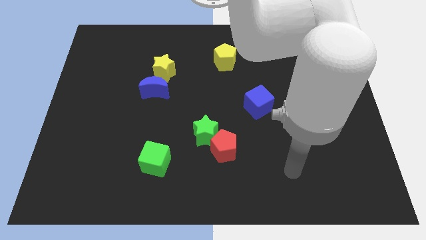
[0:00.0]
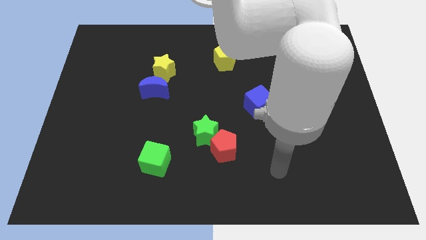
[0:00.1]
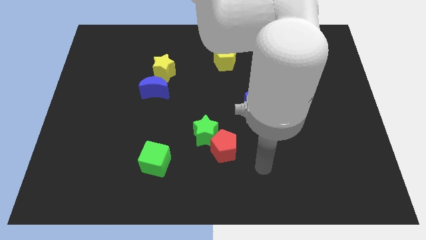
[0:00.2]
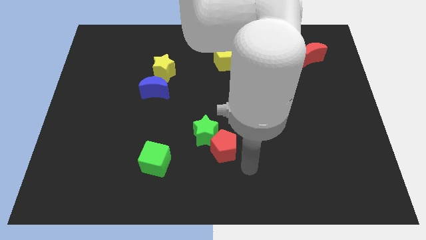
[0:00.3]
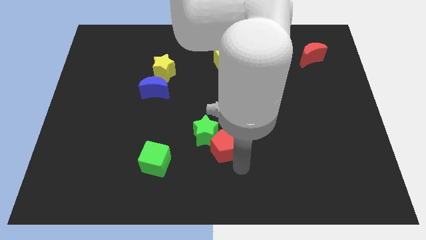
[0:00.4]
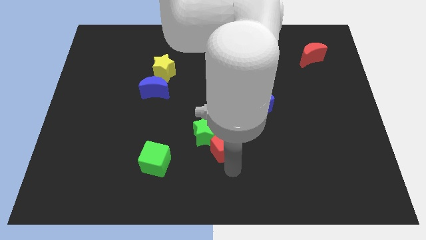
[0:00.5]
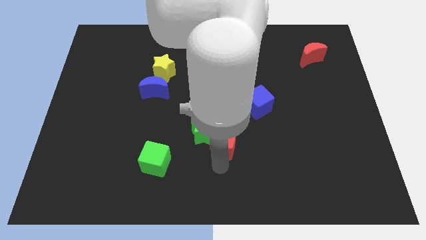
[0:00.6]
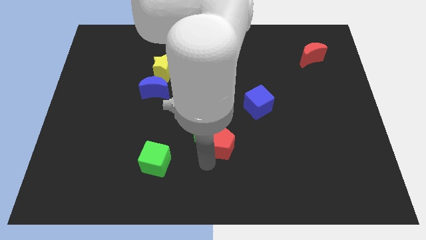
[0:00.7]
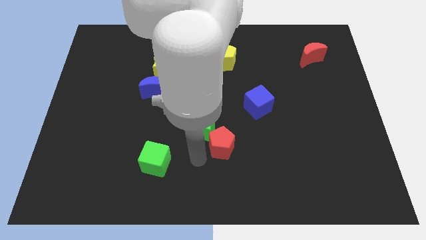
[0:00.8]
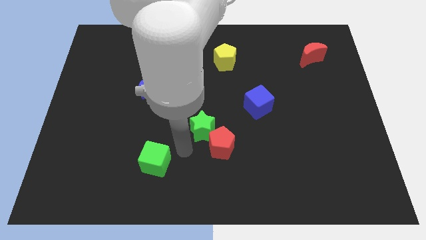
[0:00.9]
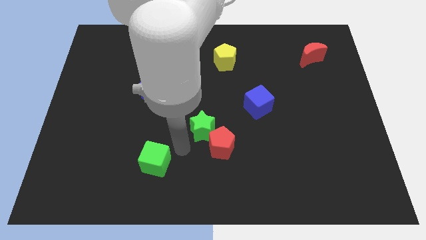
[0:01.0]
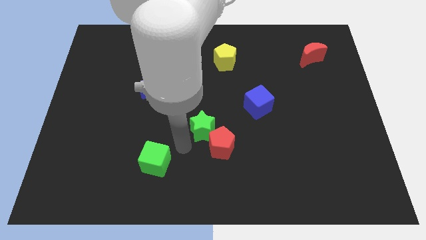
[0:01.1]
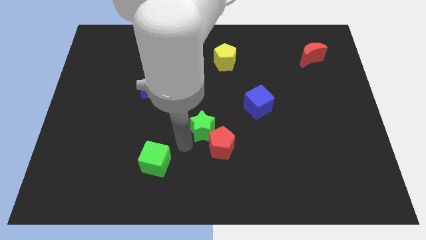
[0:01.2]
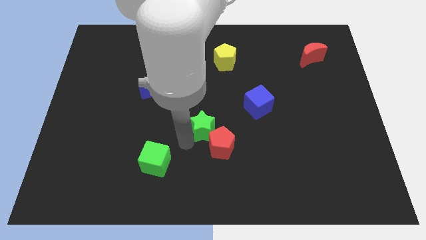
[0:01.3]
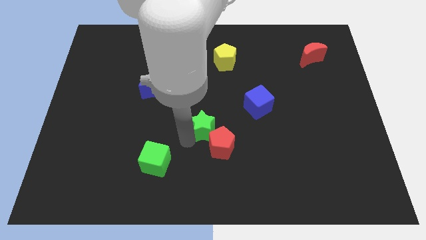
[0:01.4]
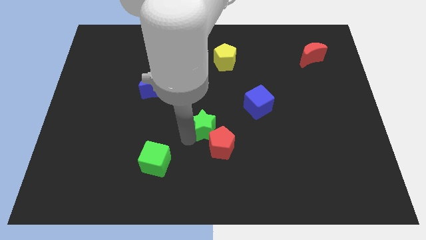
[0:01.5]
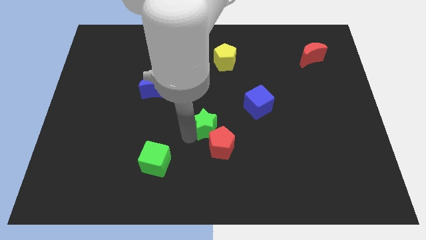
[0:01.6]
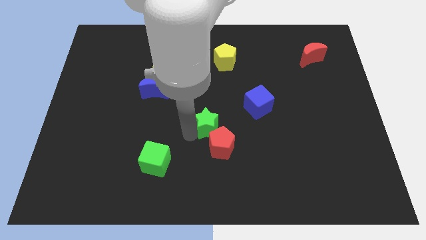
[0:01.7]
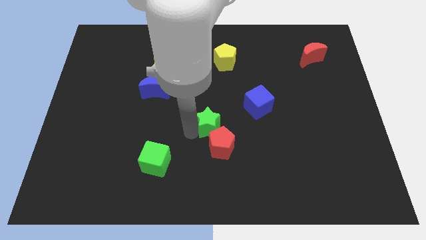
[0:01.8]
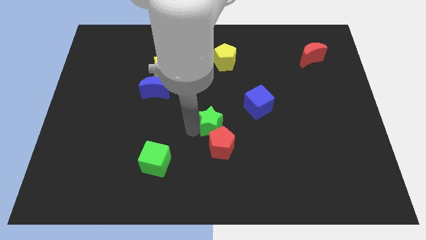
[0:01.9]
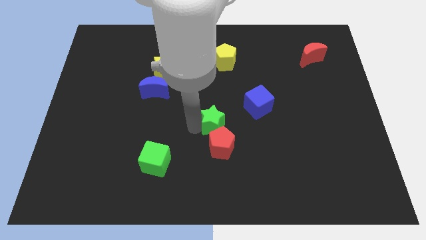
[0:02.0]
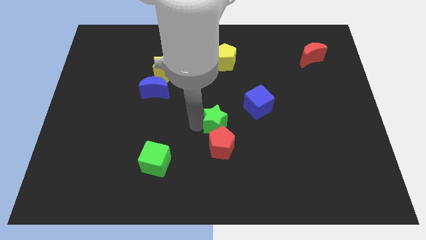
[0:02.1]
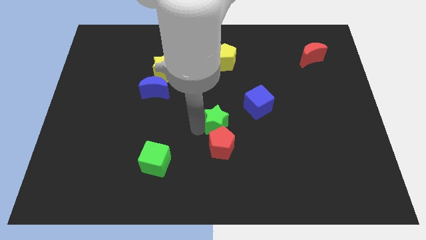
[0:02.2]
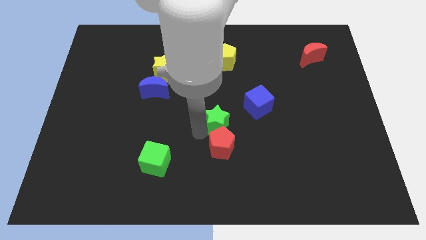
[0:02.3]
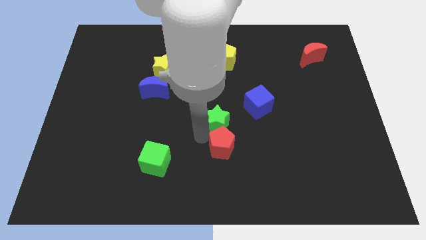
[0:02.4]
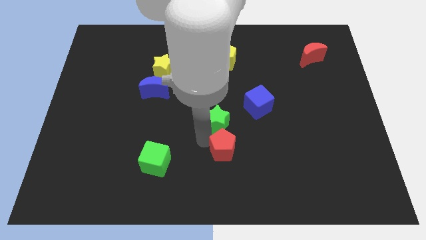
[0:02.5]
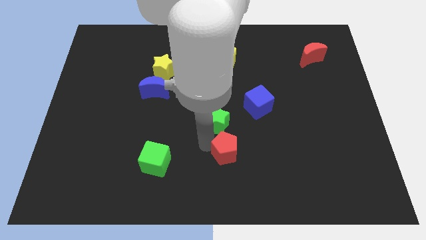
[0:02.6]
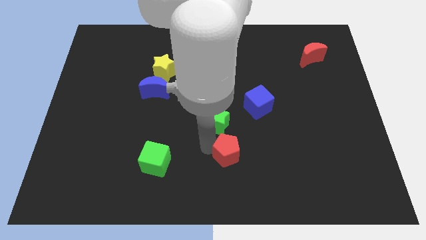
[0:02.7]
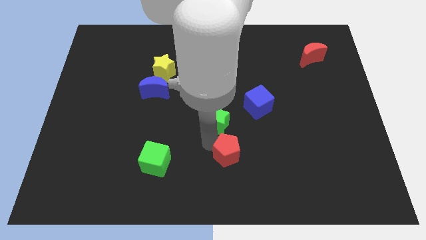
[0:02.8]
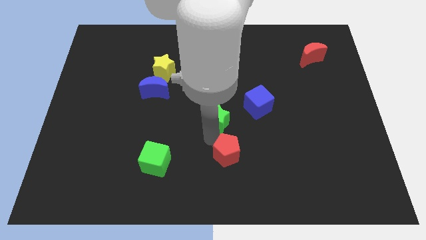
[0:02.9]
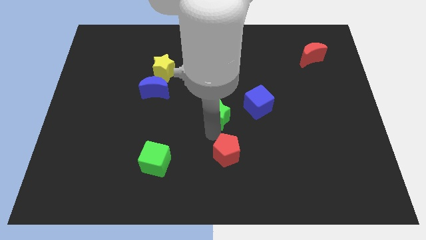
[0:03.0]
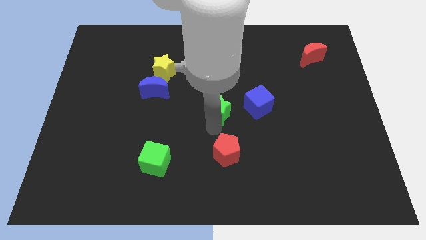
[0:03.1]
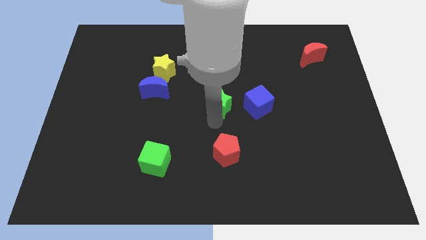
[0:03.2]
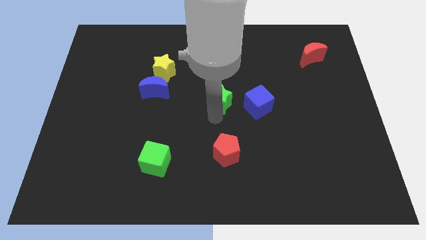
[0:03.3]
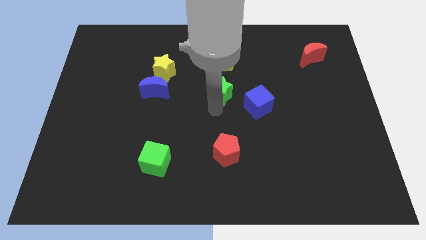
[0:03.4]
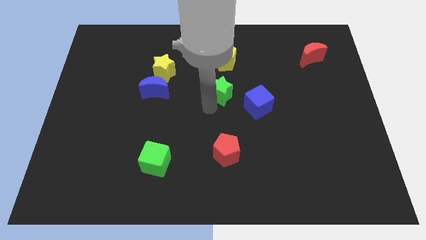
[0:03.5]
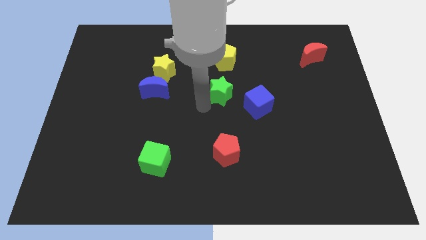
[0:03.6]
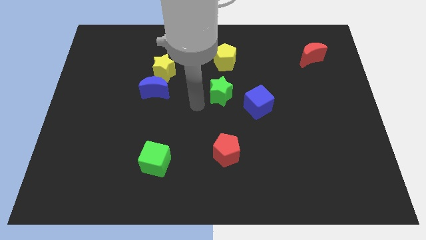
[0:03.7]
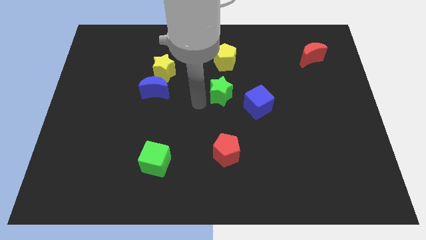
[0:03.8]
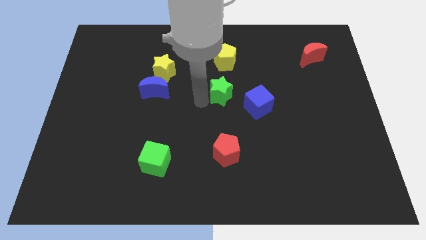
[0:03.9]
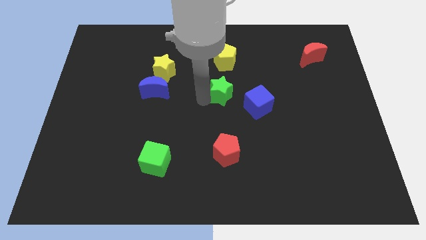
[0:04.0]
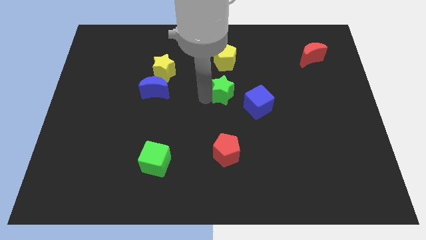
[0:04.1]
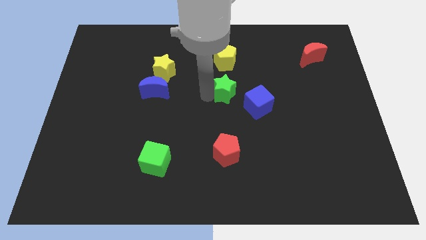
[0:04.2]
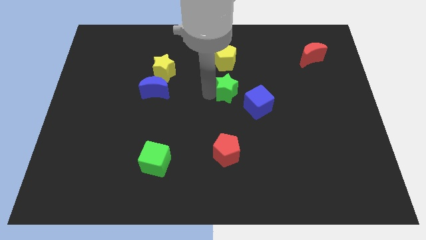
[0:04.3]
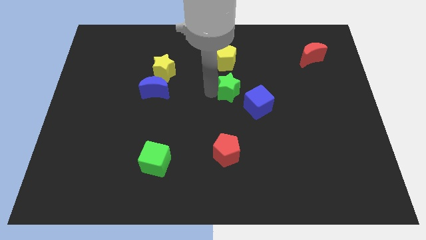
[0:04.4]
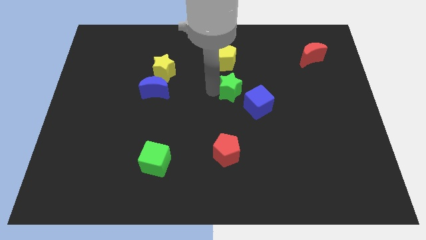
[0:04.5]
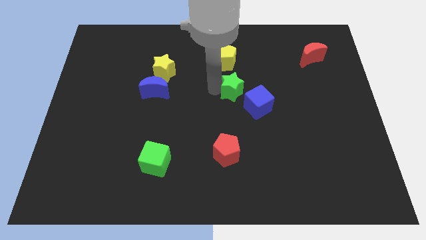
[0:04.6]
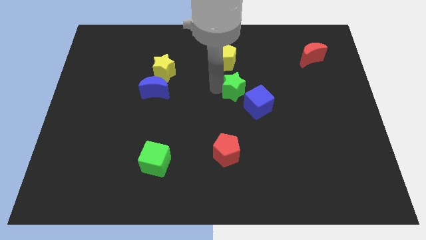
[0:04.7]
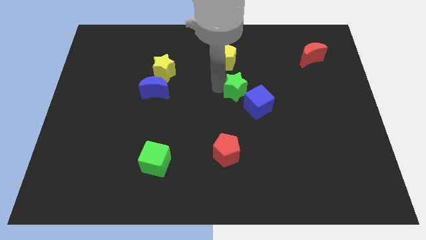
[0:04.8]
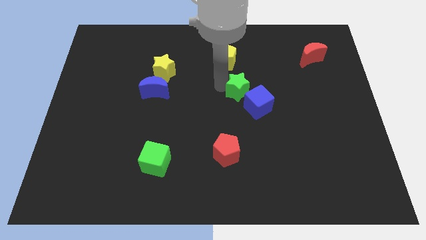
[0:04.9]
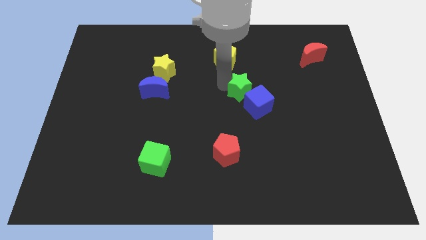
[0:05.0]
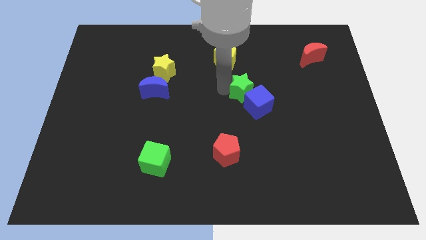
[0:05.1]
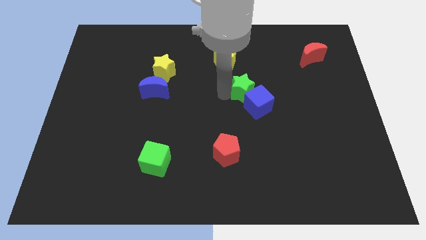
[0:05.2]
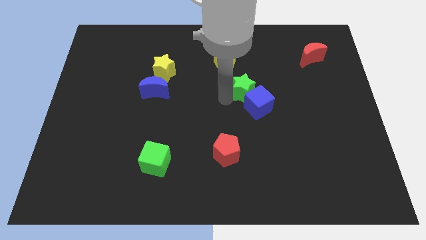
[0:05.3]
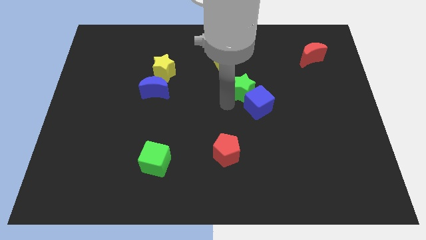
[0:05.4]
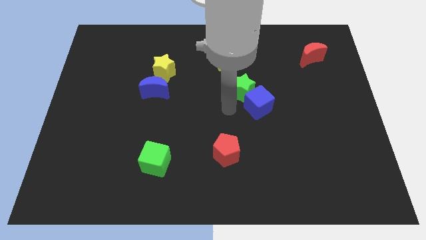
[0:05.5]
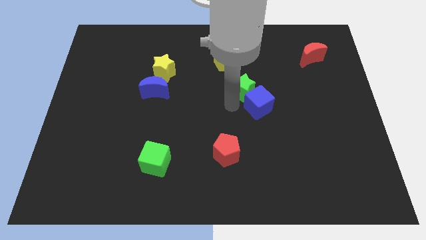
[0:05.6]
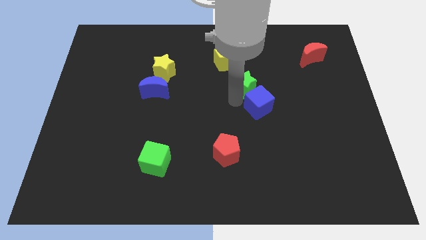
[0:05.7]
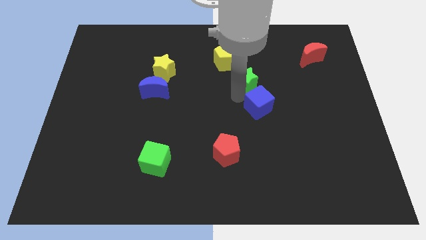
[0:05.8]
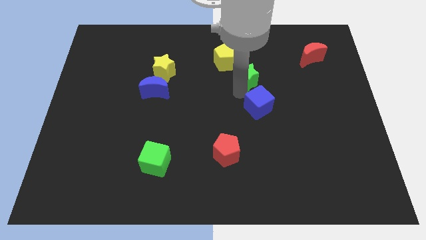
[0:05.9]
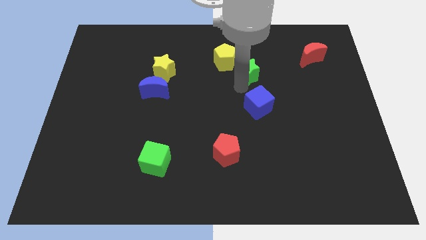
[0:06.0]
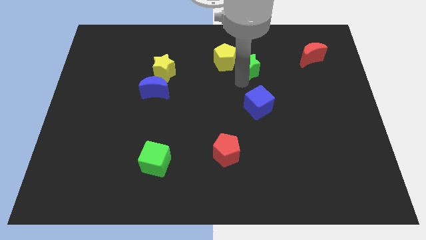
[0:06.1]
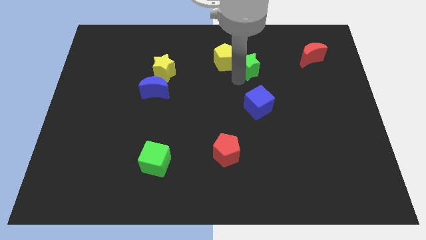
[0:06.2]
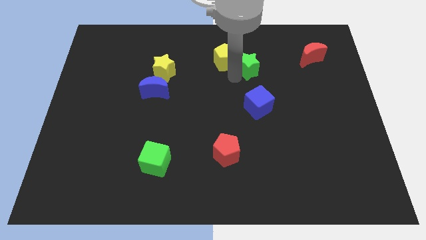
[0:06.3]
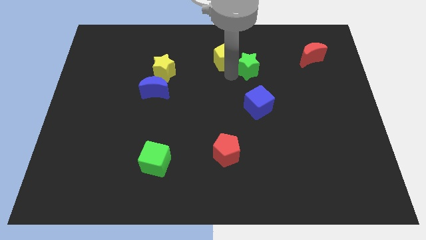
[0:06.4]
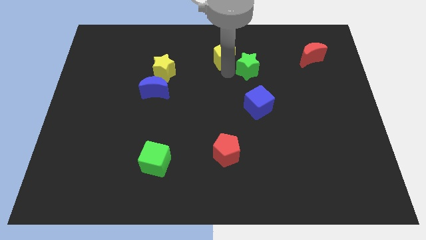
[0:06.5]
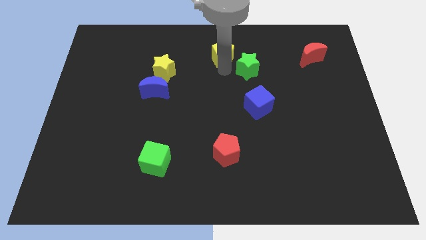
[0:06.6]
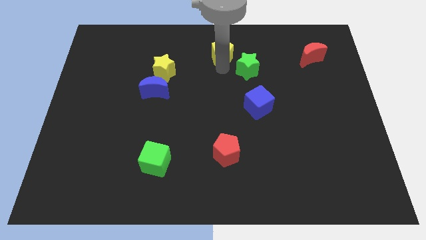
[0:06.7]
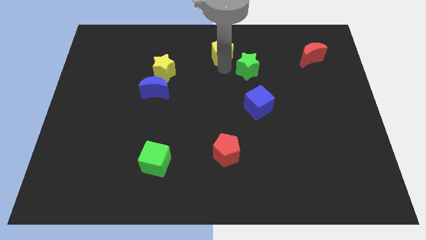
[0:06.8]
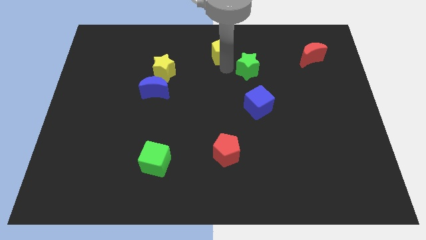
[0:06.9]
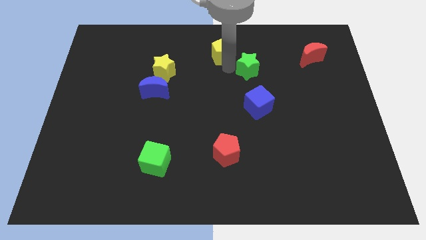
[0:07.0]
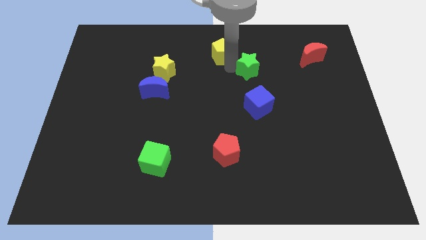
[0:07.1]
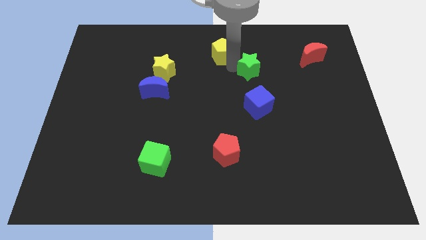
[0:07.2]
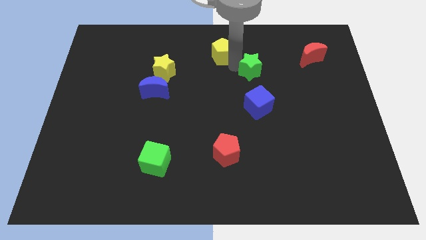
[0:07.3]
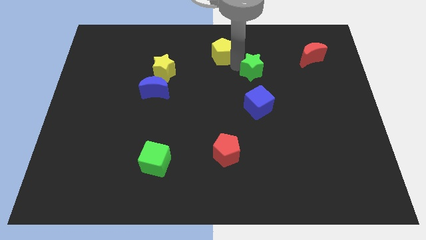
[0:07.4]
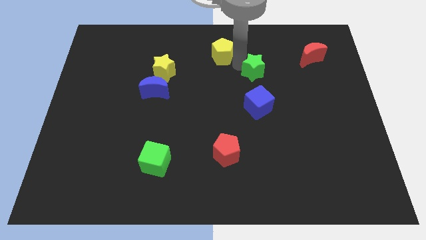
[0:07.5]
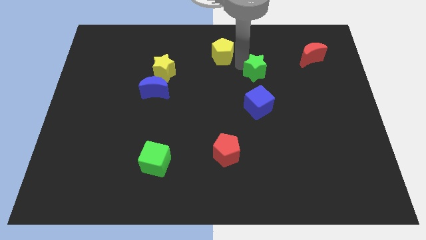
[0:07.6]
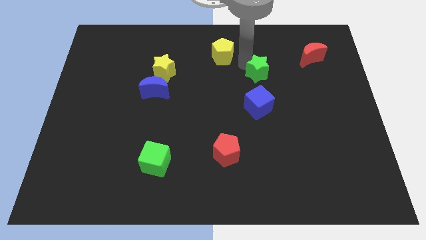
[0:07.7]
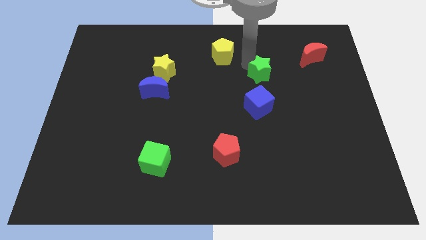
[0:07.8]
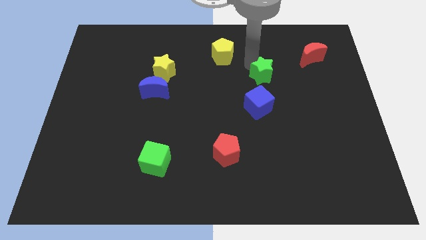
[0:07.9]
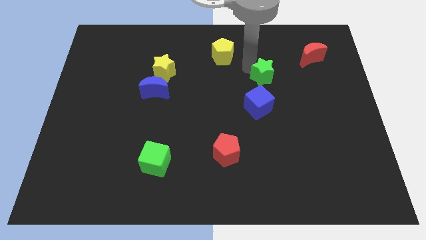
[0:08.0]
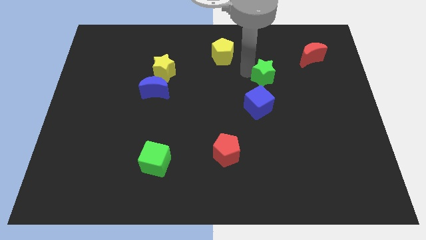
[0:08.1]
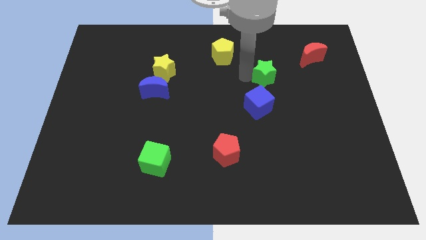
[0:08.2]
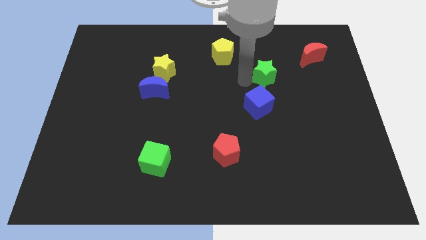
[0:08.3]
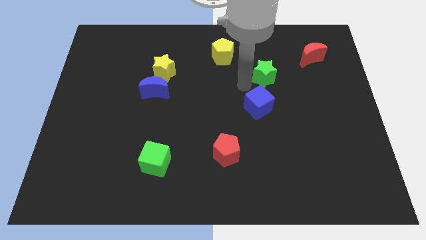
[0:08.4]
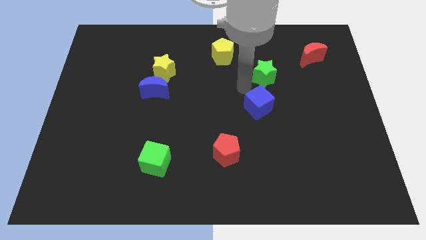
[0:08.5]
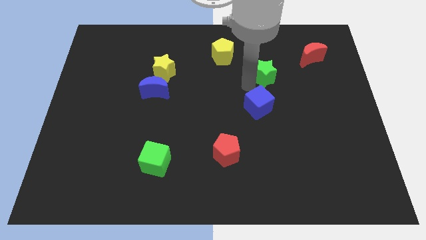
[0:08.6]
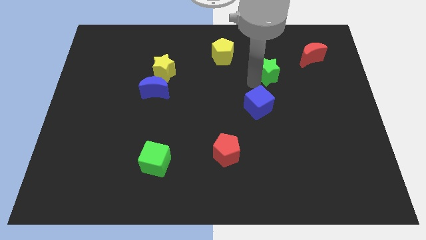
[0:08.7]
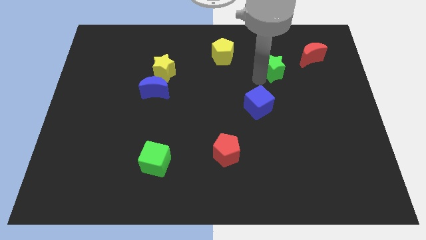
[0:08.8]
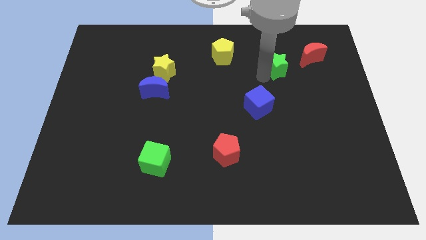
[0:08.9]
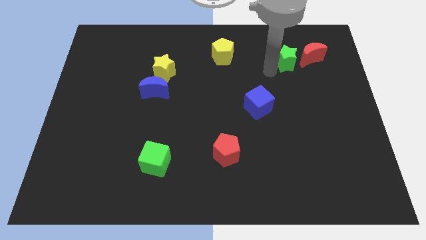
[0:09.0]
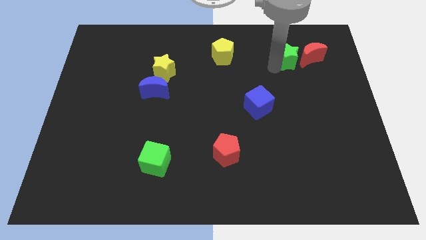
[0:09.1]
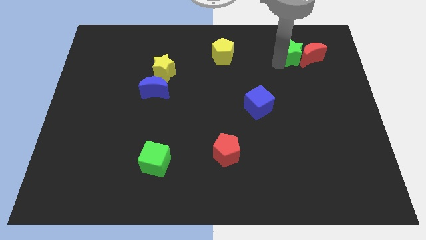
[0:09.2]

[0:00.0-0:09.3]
put the green star next to the red moon
